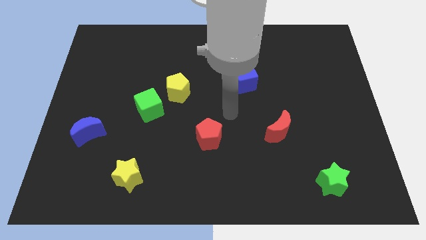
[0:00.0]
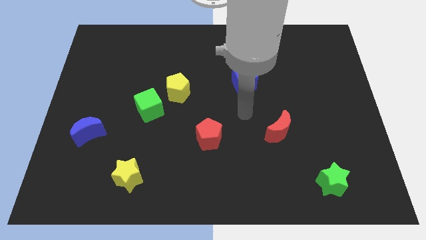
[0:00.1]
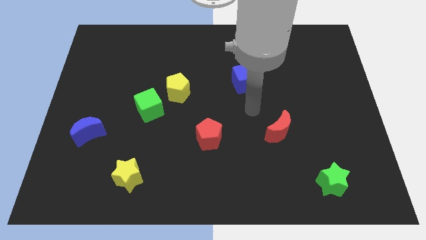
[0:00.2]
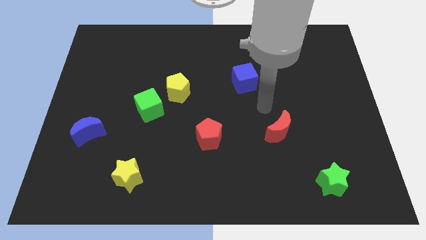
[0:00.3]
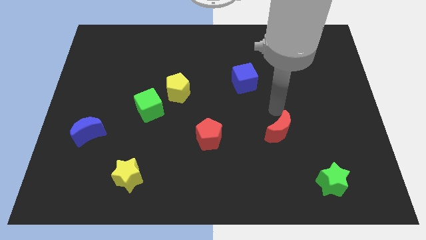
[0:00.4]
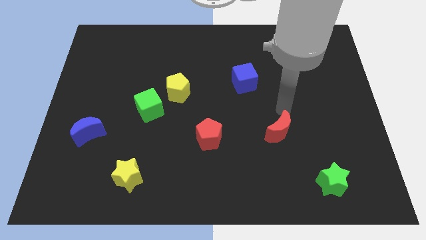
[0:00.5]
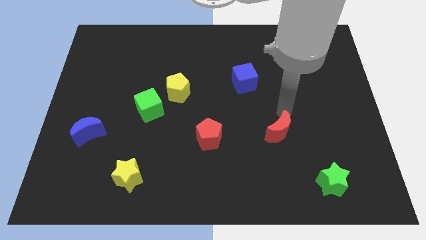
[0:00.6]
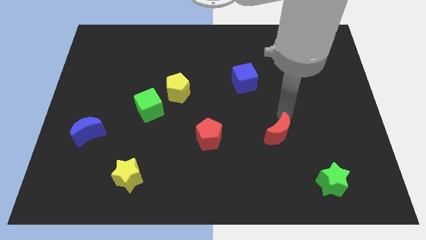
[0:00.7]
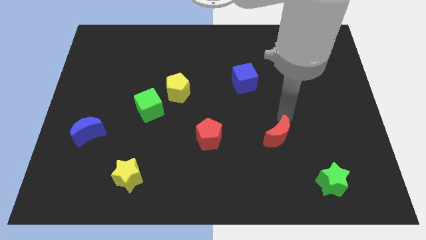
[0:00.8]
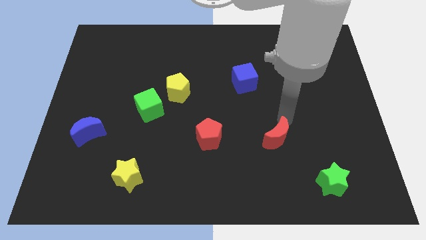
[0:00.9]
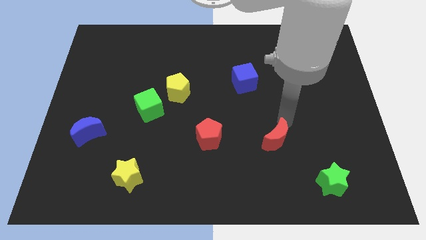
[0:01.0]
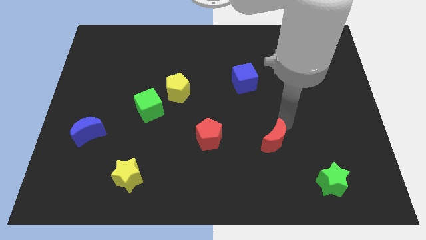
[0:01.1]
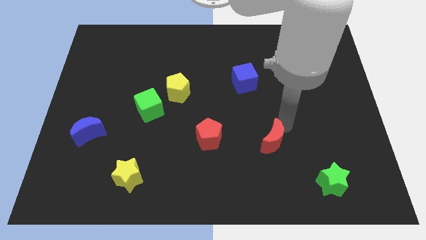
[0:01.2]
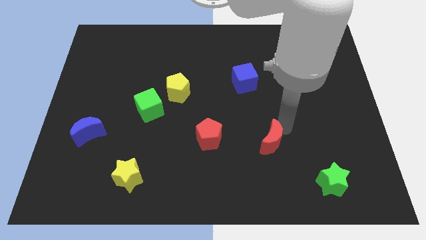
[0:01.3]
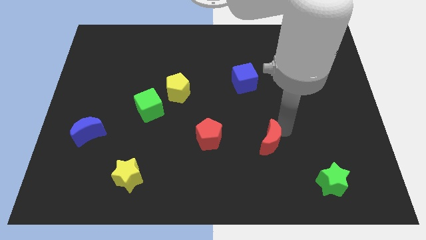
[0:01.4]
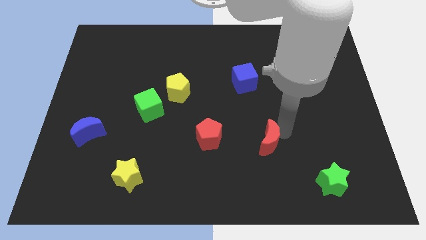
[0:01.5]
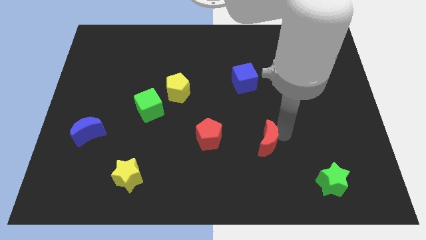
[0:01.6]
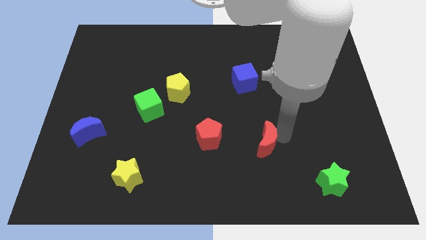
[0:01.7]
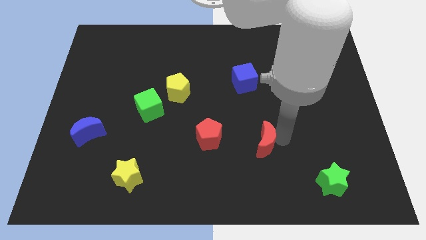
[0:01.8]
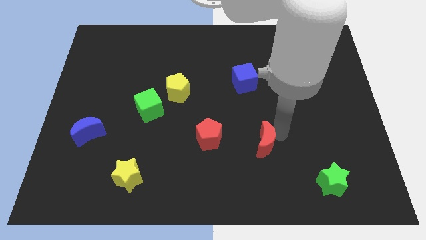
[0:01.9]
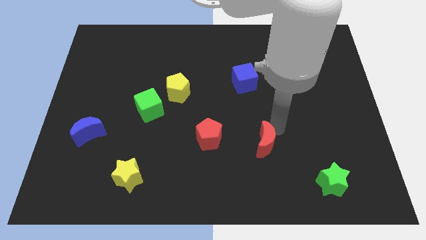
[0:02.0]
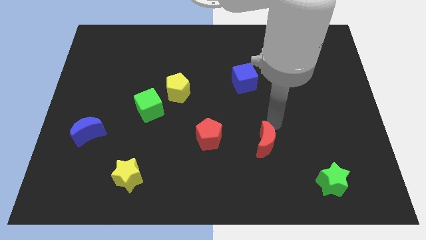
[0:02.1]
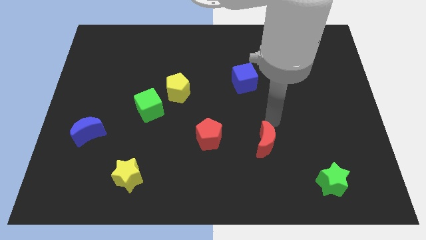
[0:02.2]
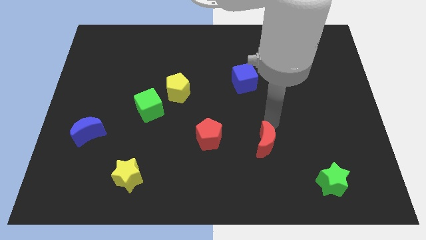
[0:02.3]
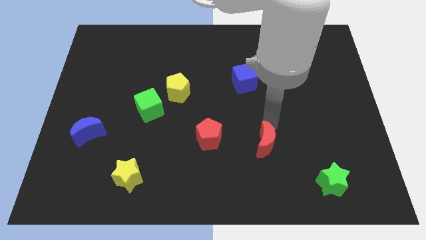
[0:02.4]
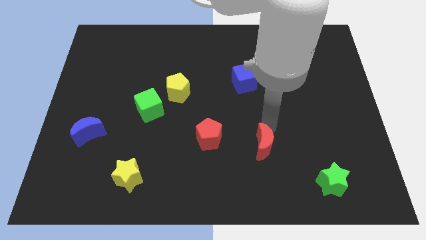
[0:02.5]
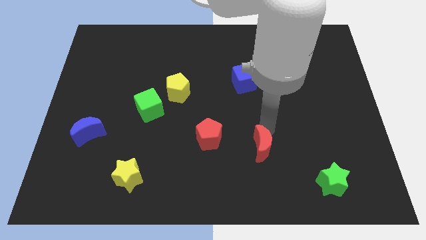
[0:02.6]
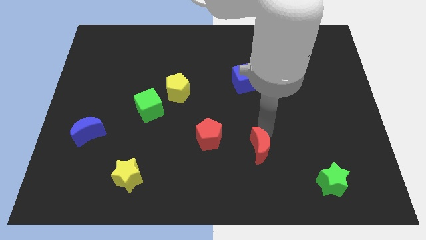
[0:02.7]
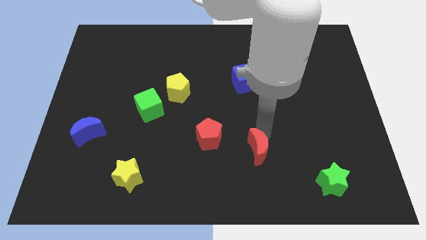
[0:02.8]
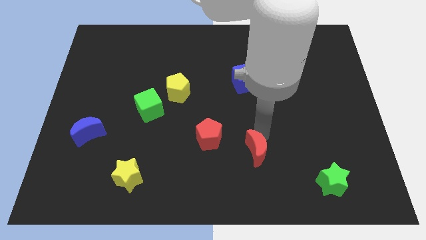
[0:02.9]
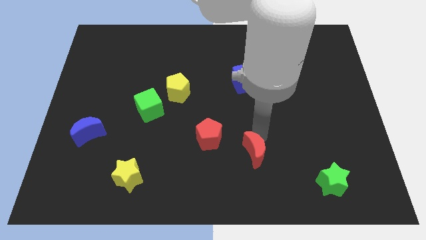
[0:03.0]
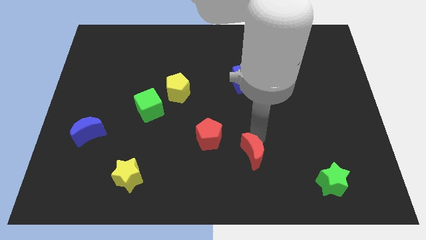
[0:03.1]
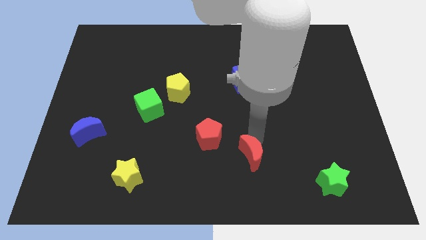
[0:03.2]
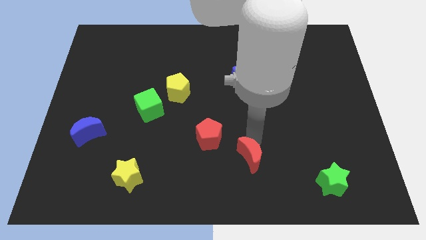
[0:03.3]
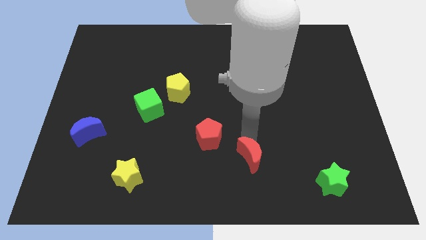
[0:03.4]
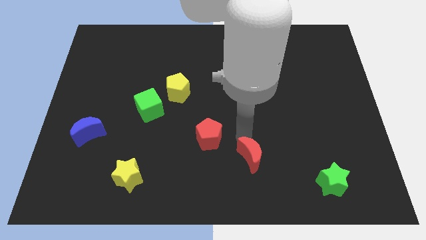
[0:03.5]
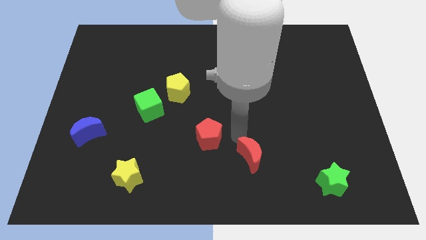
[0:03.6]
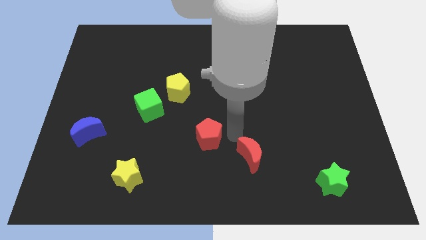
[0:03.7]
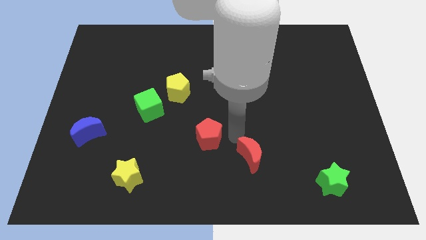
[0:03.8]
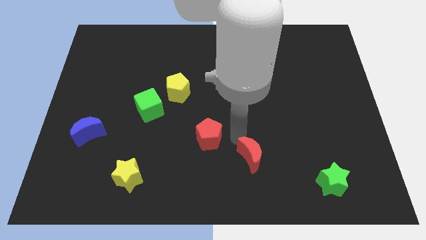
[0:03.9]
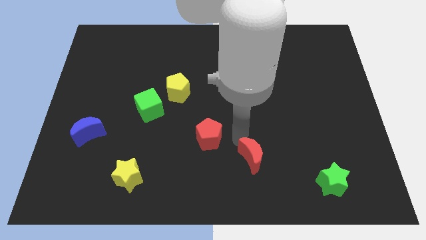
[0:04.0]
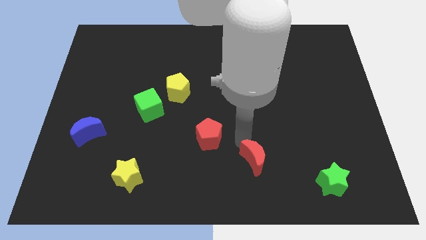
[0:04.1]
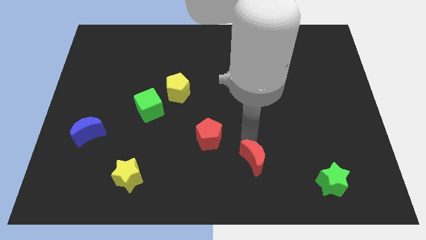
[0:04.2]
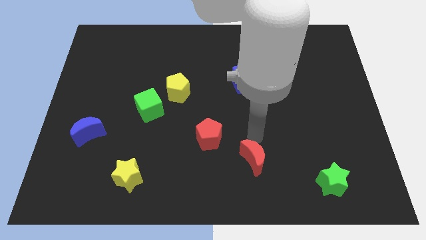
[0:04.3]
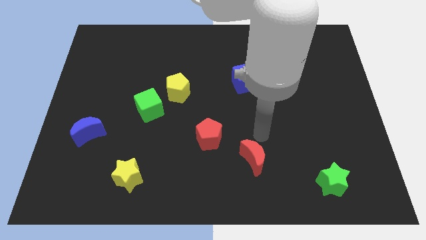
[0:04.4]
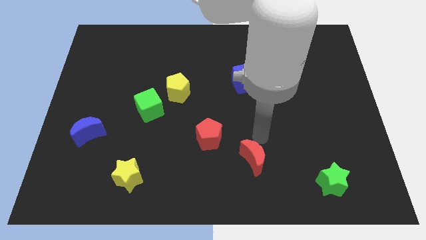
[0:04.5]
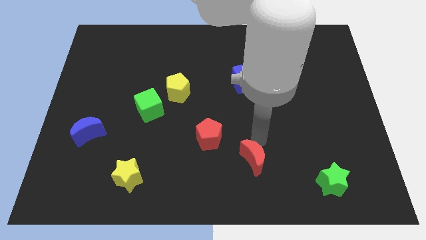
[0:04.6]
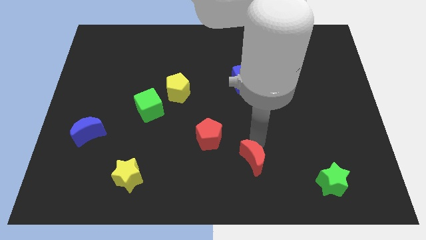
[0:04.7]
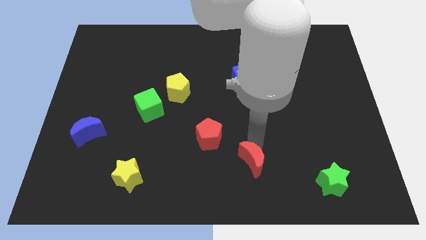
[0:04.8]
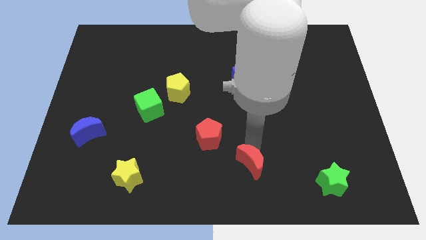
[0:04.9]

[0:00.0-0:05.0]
slide the red moon to the bottom side

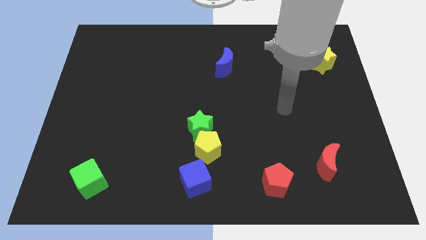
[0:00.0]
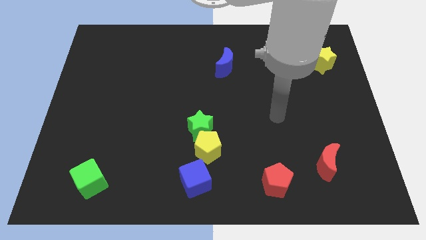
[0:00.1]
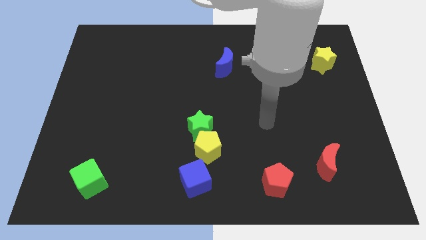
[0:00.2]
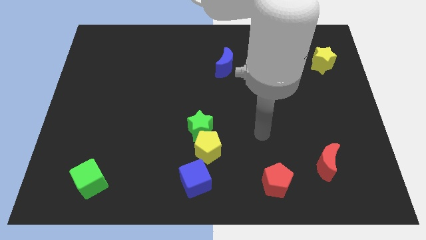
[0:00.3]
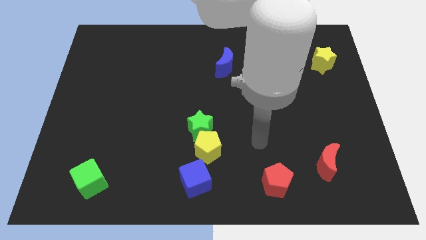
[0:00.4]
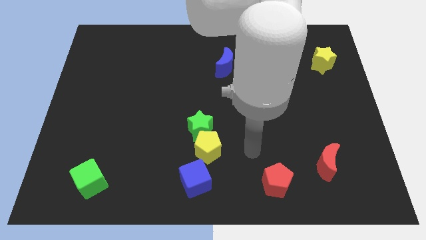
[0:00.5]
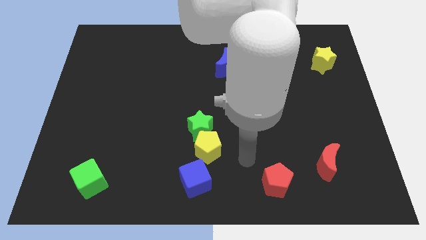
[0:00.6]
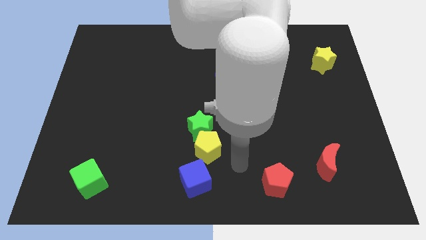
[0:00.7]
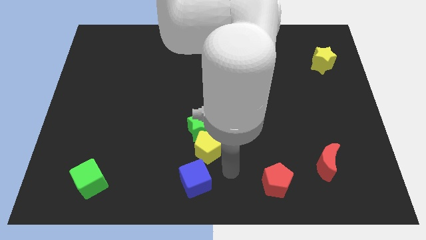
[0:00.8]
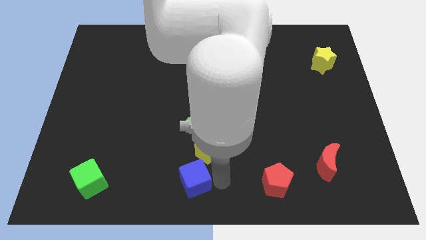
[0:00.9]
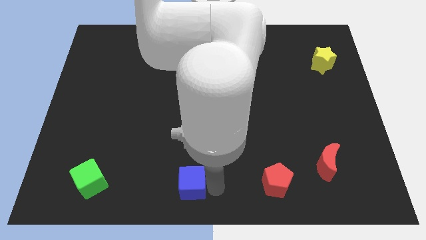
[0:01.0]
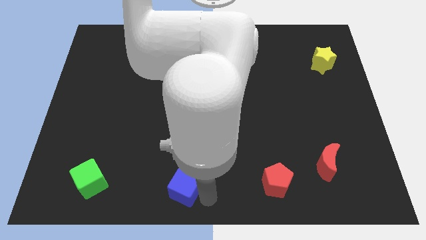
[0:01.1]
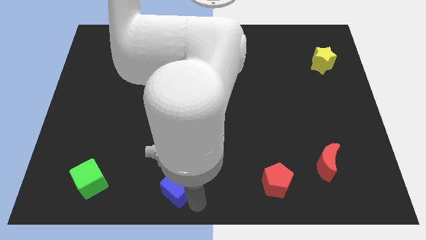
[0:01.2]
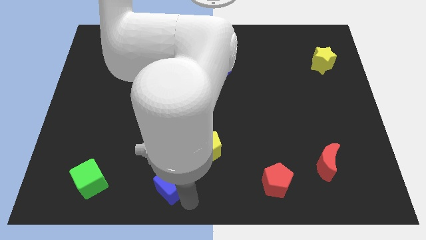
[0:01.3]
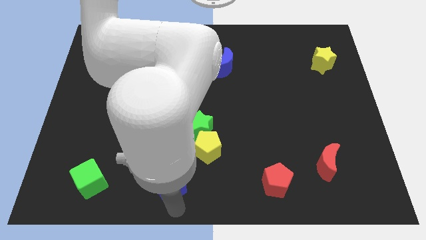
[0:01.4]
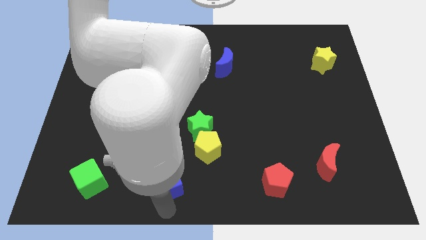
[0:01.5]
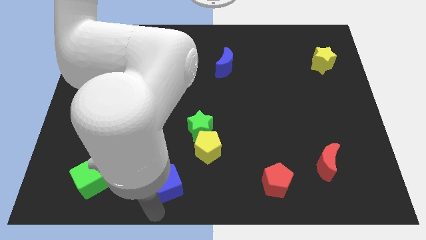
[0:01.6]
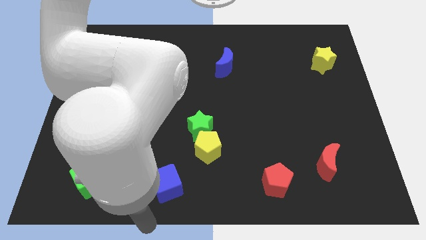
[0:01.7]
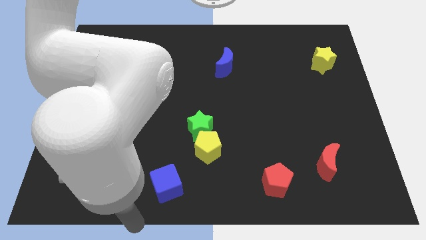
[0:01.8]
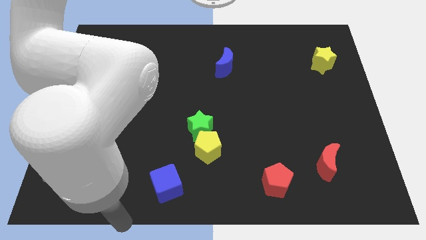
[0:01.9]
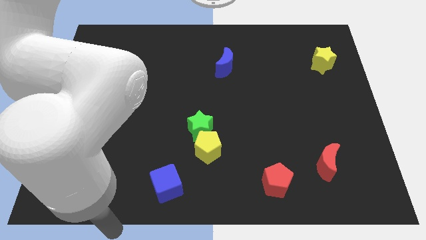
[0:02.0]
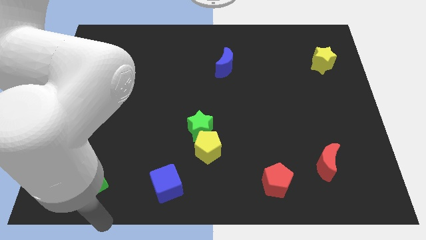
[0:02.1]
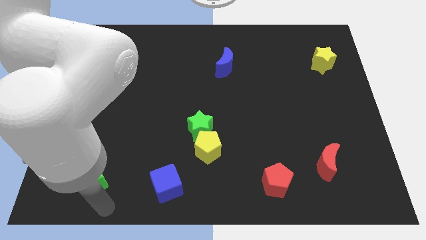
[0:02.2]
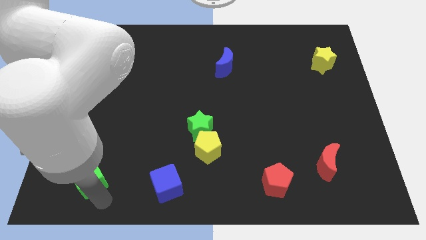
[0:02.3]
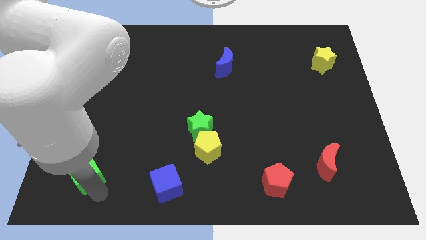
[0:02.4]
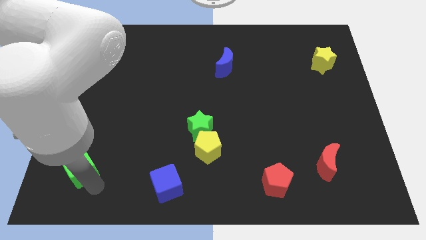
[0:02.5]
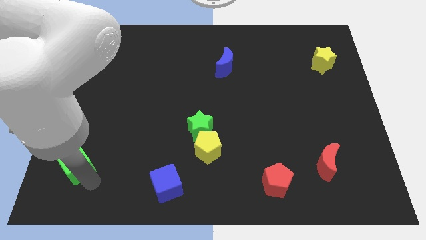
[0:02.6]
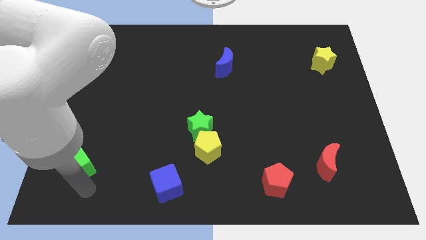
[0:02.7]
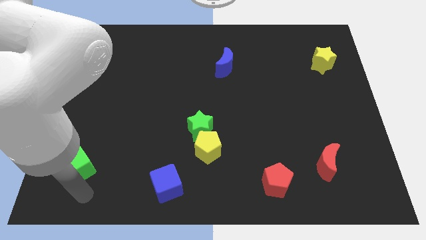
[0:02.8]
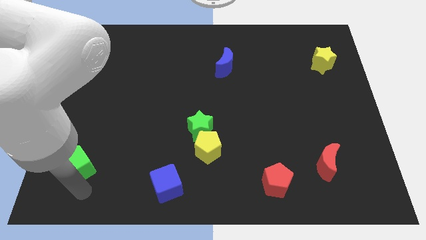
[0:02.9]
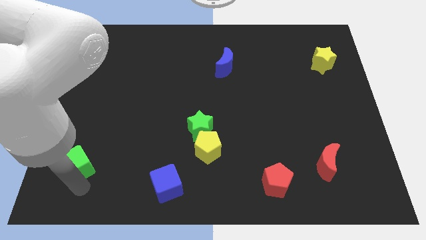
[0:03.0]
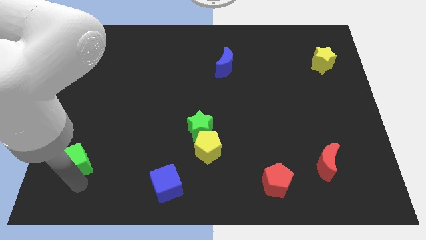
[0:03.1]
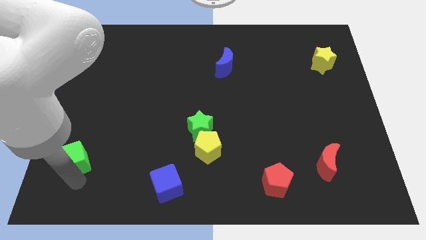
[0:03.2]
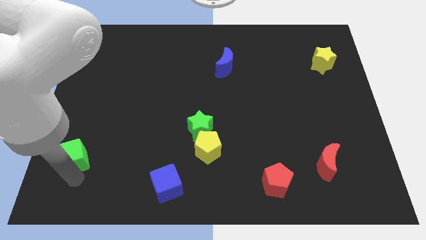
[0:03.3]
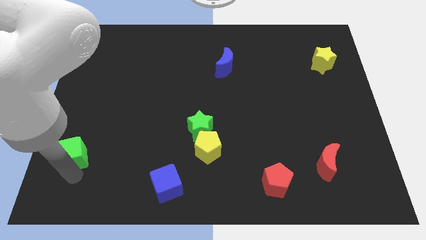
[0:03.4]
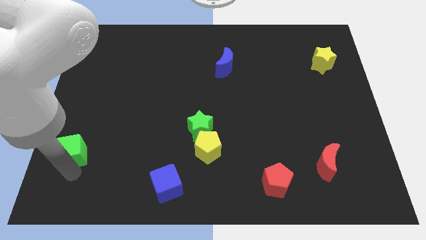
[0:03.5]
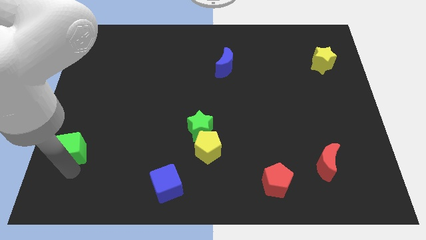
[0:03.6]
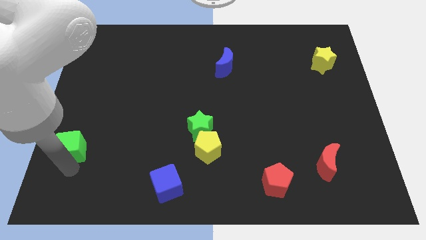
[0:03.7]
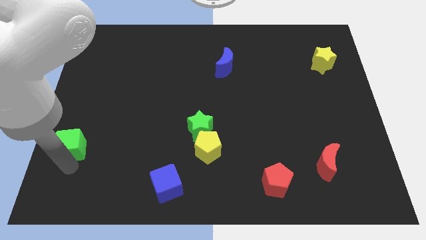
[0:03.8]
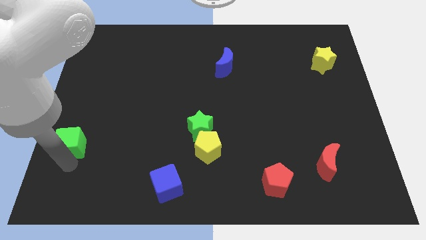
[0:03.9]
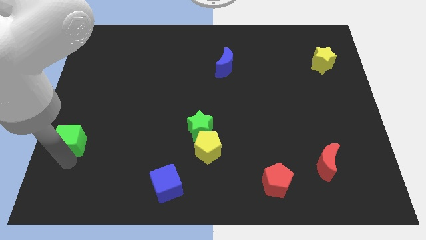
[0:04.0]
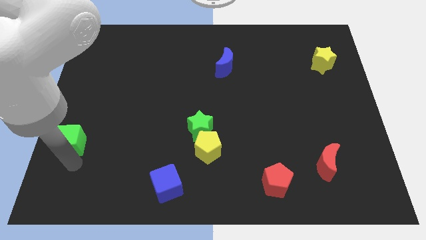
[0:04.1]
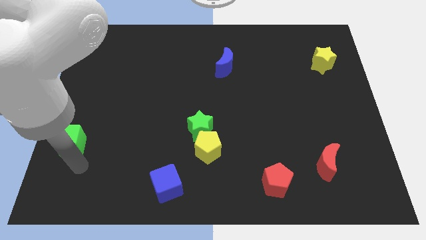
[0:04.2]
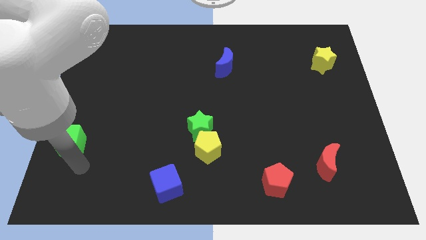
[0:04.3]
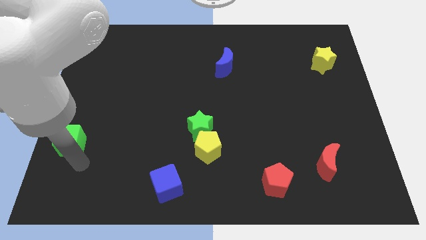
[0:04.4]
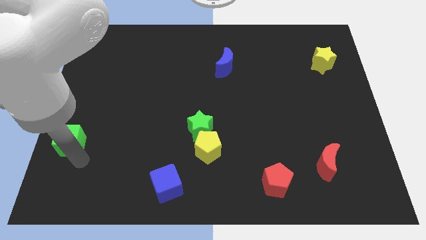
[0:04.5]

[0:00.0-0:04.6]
slide the green cube to the left side of the board
